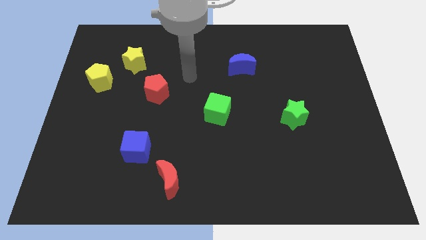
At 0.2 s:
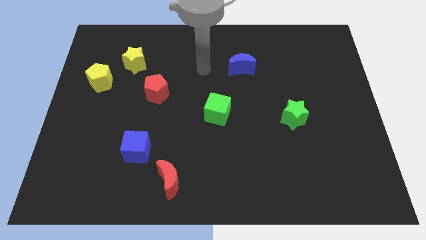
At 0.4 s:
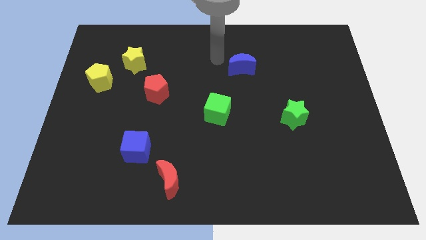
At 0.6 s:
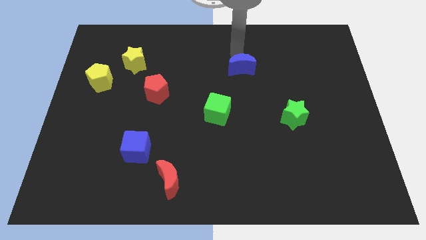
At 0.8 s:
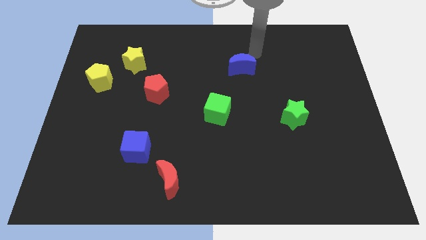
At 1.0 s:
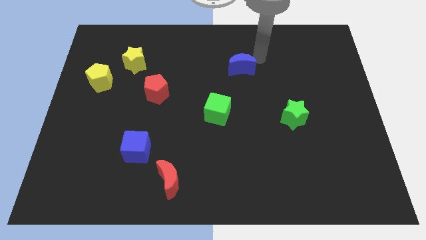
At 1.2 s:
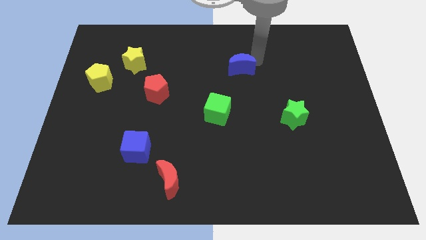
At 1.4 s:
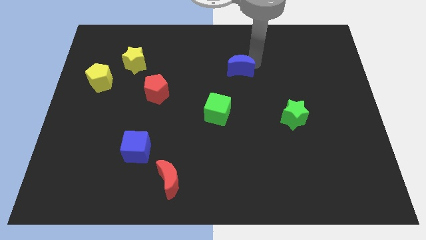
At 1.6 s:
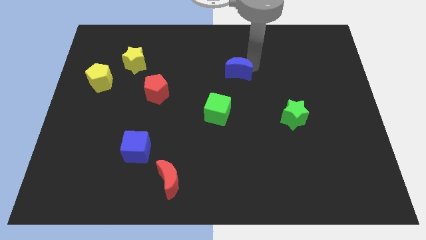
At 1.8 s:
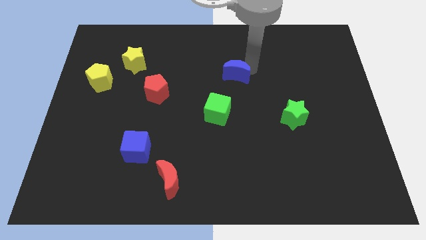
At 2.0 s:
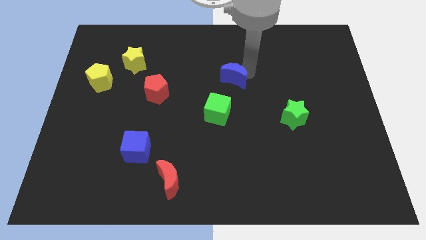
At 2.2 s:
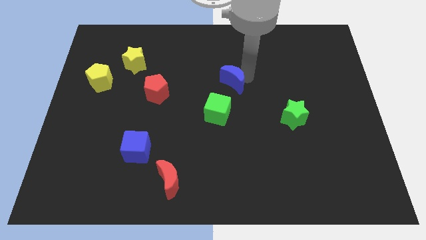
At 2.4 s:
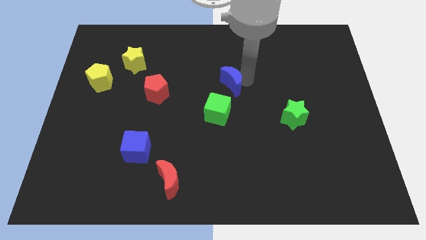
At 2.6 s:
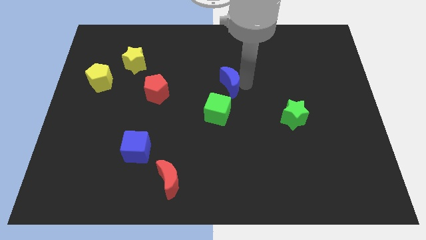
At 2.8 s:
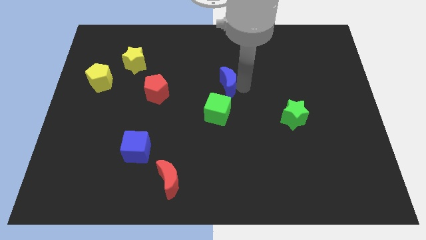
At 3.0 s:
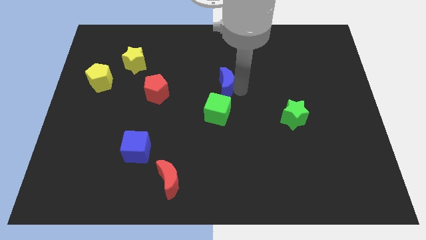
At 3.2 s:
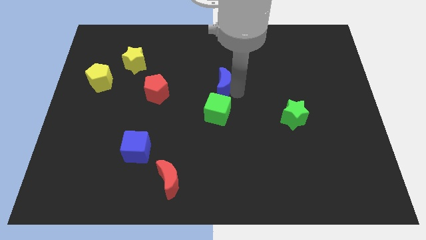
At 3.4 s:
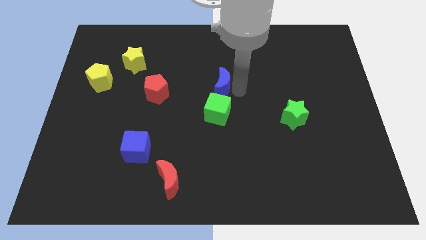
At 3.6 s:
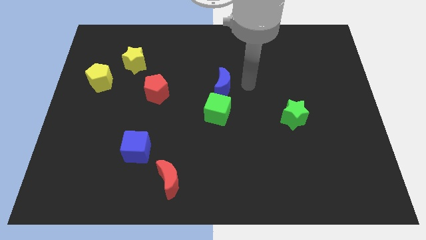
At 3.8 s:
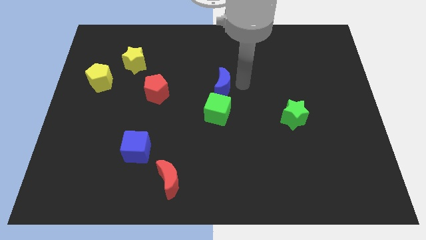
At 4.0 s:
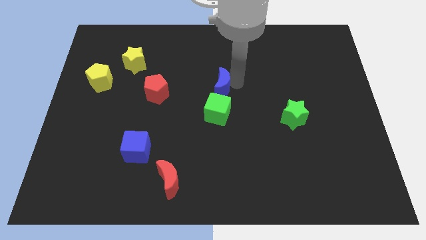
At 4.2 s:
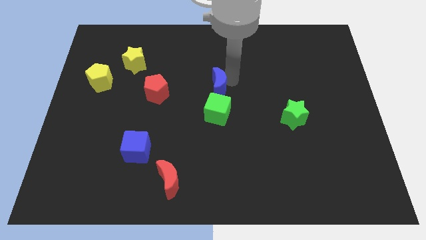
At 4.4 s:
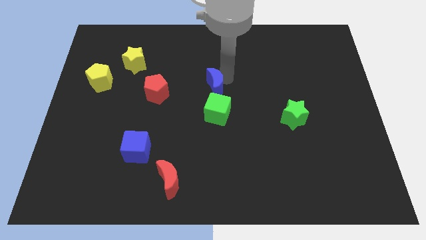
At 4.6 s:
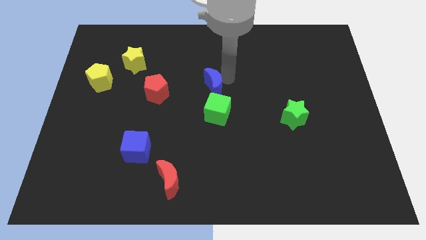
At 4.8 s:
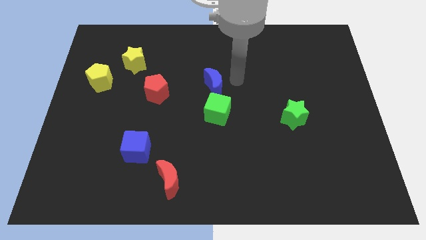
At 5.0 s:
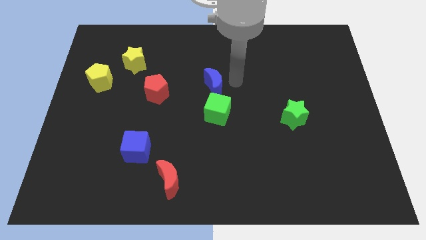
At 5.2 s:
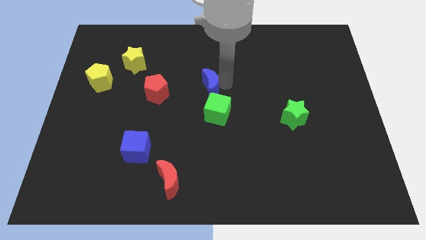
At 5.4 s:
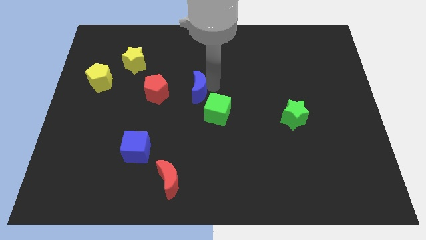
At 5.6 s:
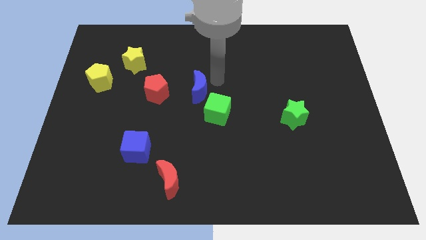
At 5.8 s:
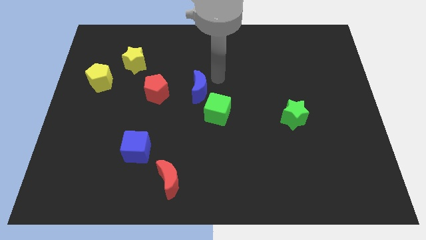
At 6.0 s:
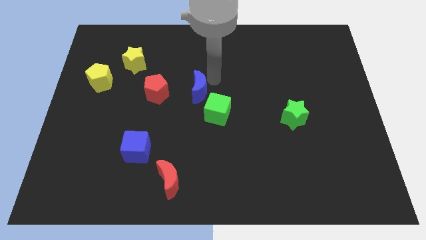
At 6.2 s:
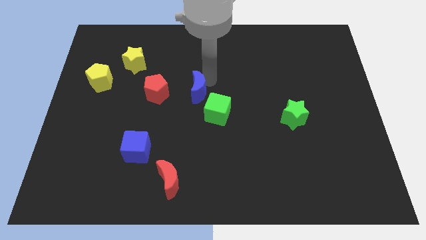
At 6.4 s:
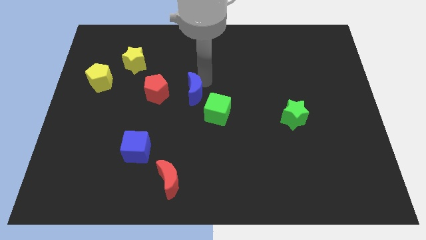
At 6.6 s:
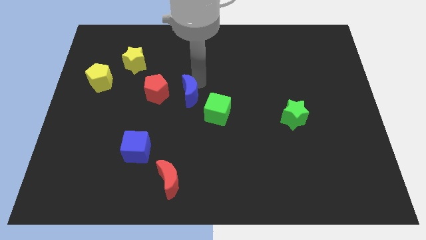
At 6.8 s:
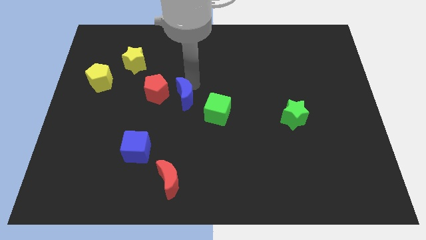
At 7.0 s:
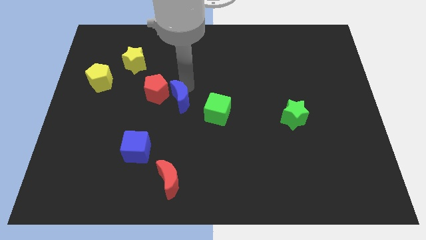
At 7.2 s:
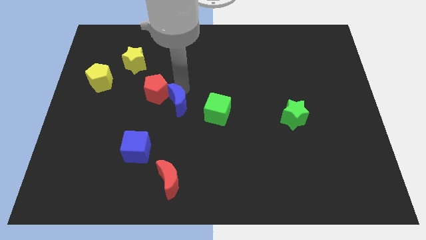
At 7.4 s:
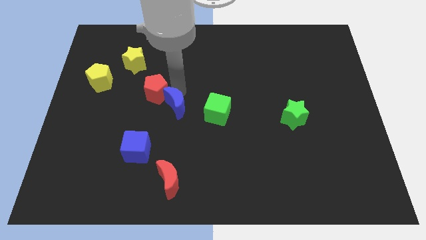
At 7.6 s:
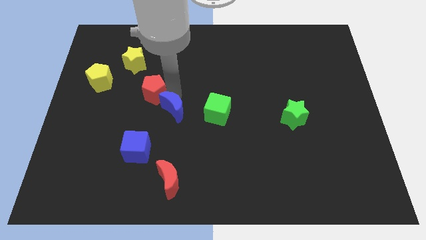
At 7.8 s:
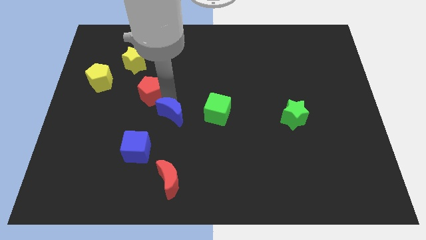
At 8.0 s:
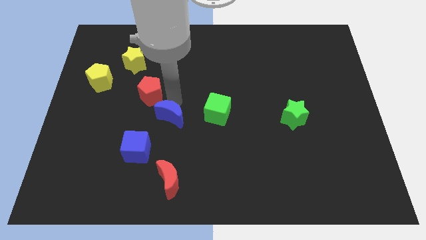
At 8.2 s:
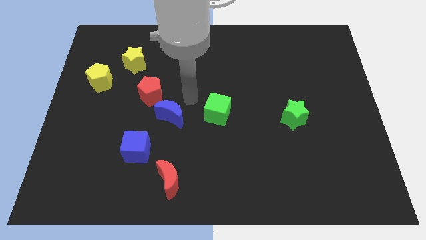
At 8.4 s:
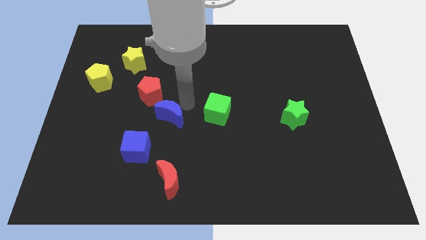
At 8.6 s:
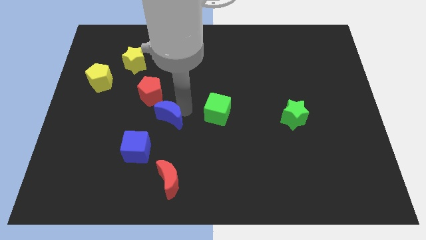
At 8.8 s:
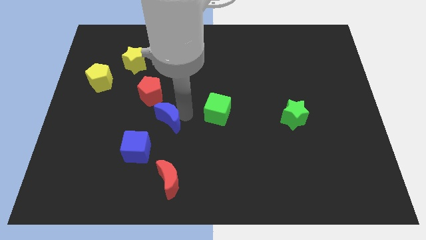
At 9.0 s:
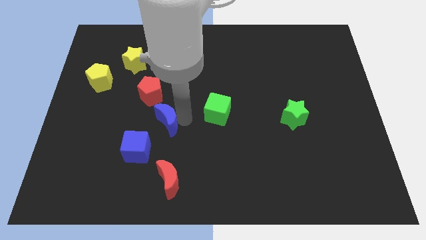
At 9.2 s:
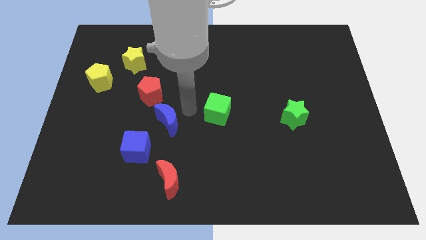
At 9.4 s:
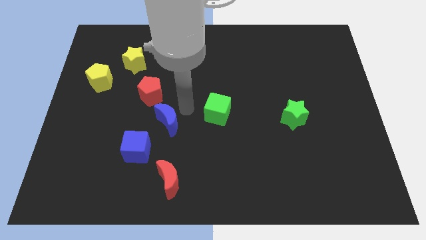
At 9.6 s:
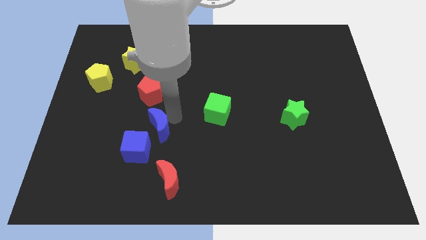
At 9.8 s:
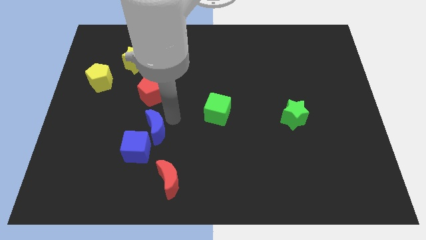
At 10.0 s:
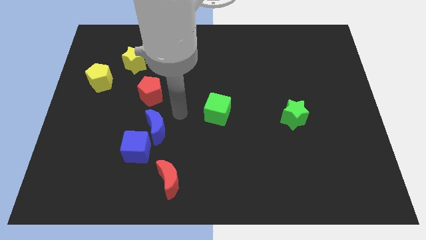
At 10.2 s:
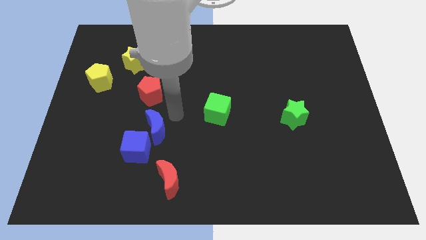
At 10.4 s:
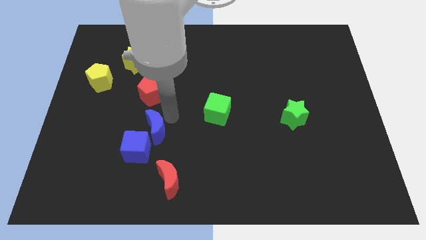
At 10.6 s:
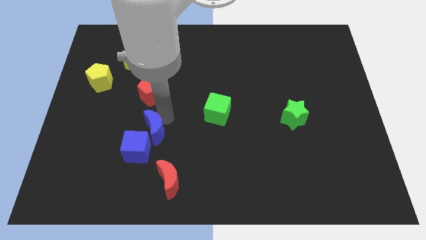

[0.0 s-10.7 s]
slide the blue moon next to the blue cube

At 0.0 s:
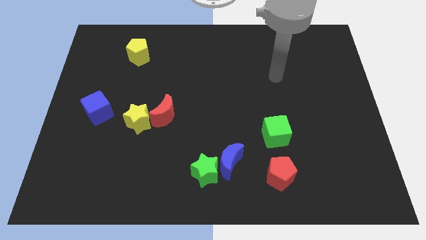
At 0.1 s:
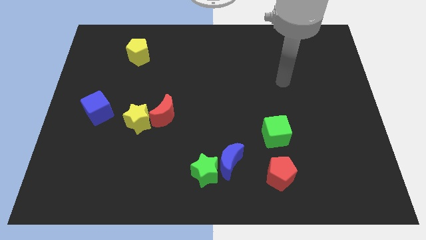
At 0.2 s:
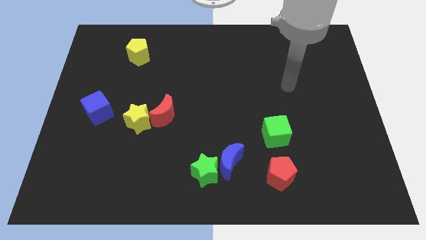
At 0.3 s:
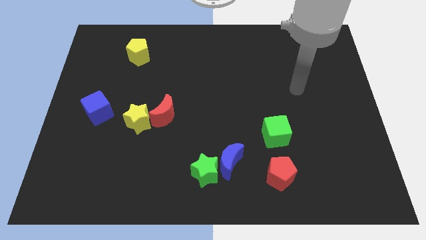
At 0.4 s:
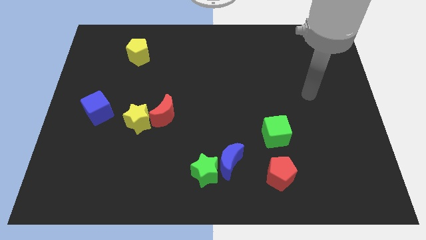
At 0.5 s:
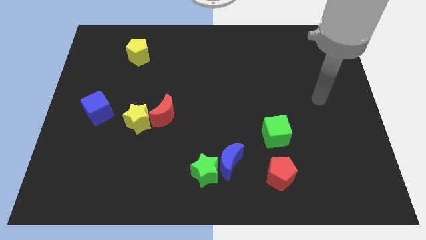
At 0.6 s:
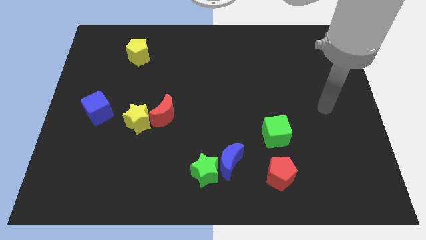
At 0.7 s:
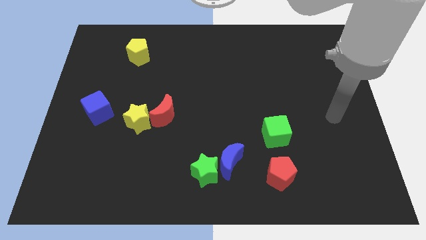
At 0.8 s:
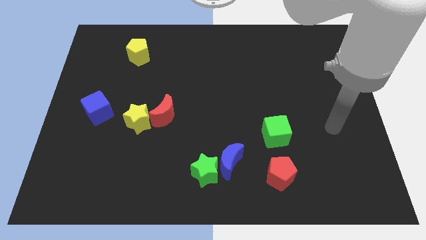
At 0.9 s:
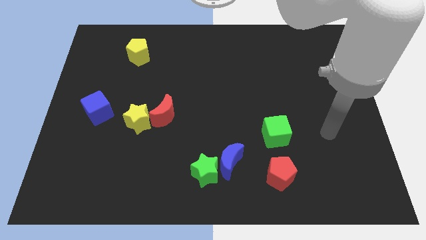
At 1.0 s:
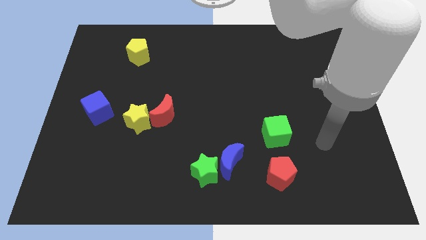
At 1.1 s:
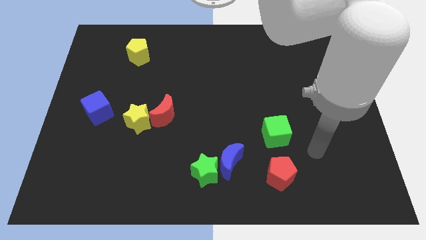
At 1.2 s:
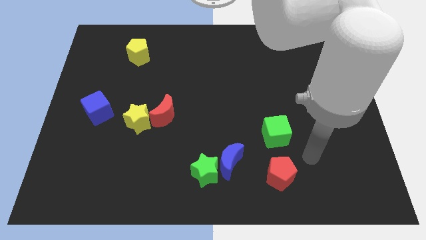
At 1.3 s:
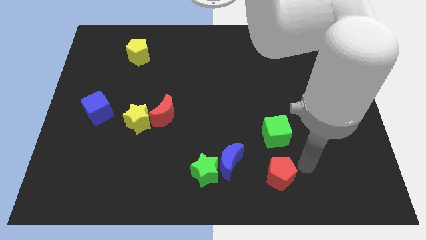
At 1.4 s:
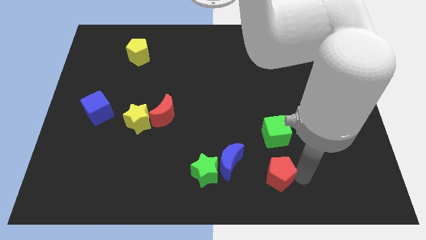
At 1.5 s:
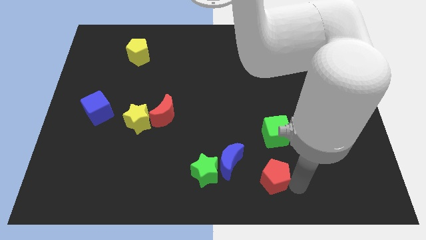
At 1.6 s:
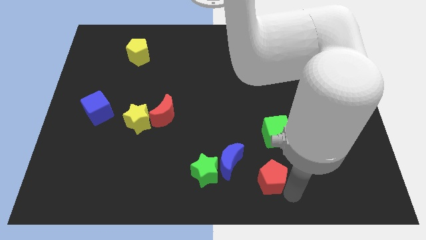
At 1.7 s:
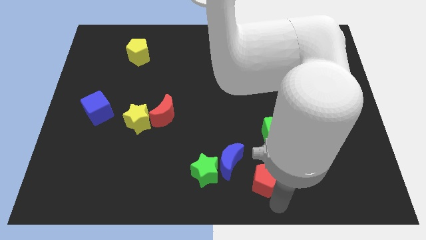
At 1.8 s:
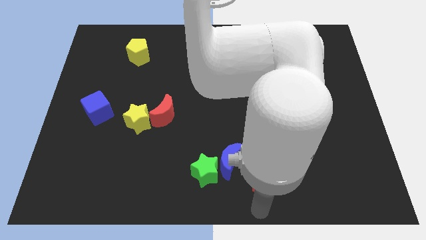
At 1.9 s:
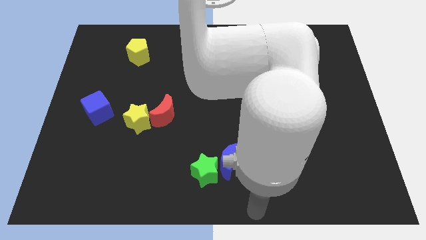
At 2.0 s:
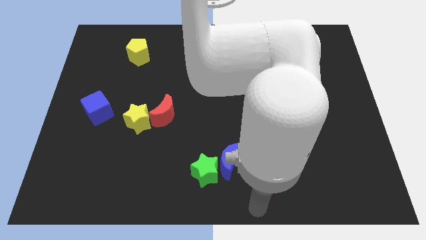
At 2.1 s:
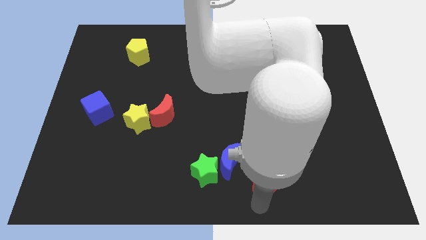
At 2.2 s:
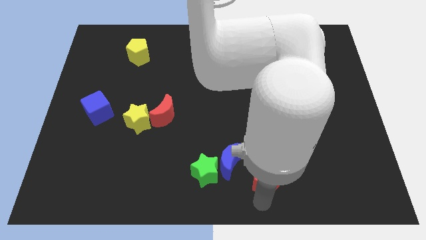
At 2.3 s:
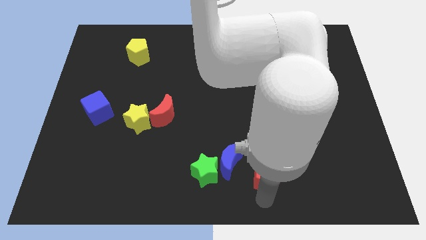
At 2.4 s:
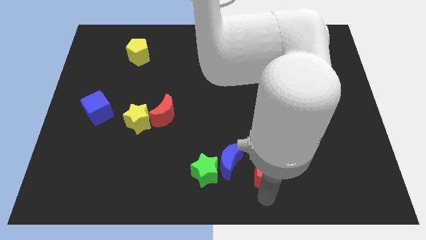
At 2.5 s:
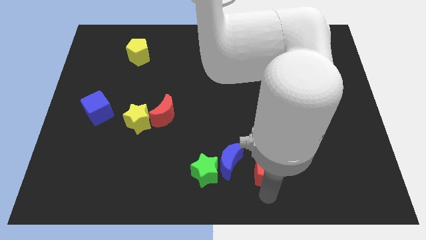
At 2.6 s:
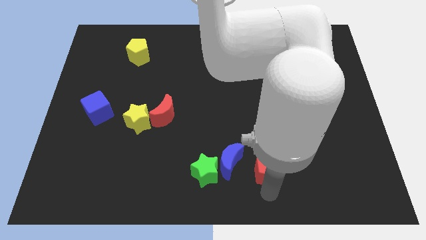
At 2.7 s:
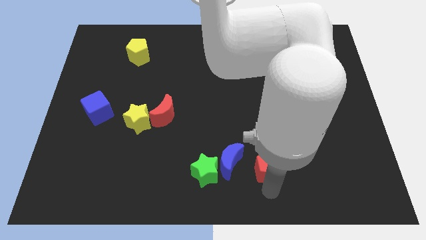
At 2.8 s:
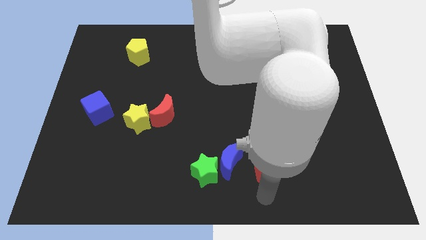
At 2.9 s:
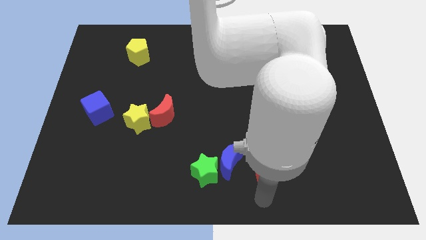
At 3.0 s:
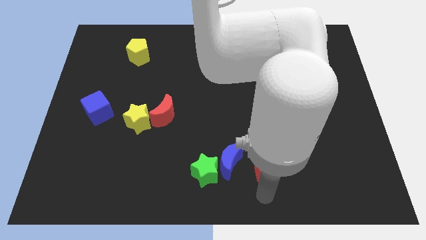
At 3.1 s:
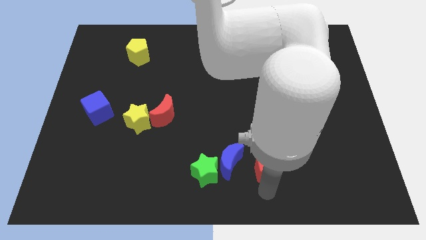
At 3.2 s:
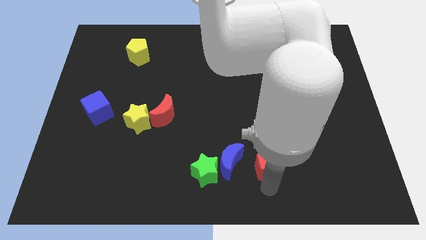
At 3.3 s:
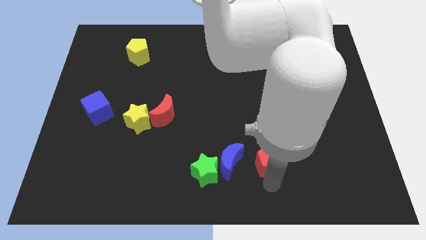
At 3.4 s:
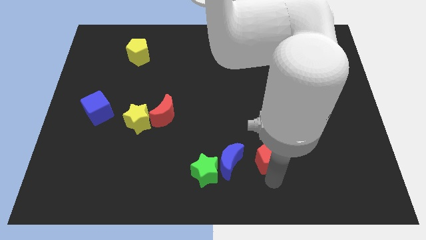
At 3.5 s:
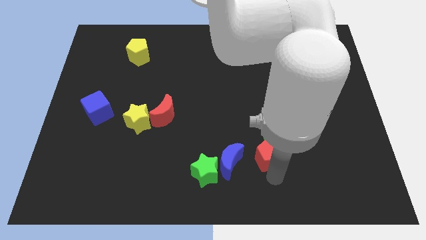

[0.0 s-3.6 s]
put the red pentagon close to the green cube
